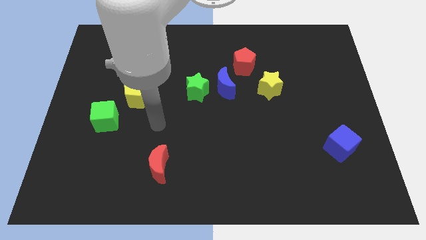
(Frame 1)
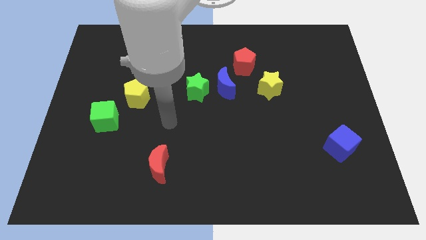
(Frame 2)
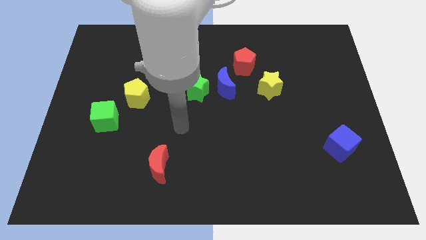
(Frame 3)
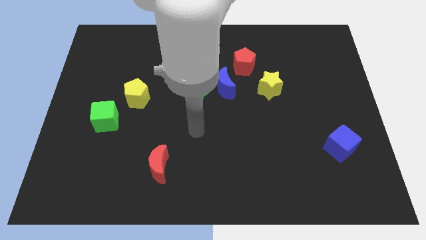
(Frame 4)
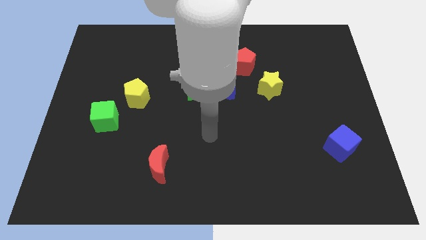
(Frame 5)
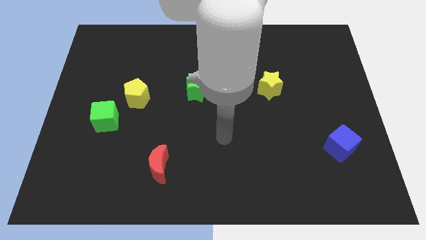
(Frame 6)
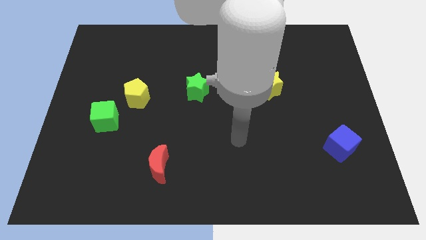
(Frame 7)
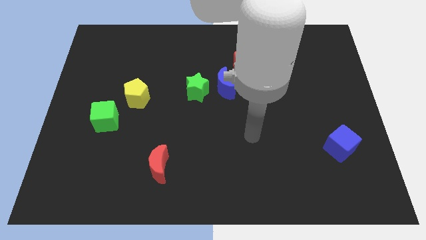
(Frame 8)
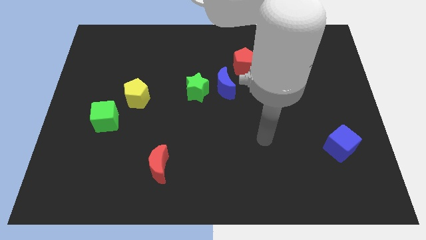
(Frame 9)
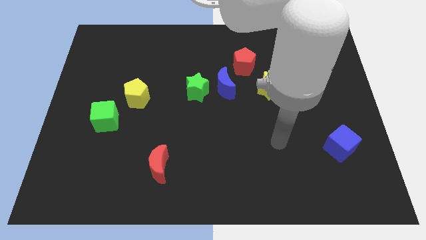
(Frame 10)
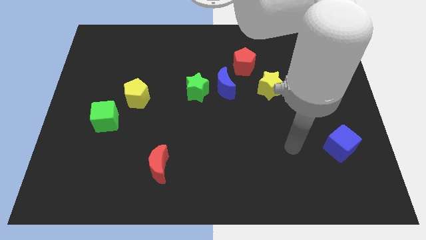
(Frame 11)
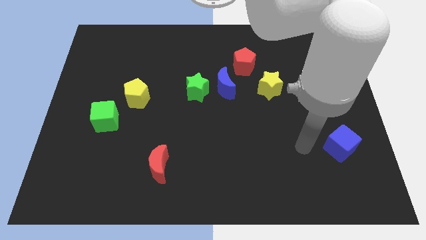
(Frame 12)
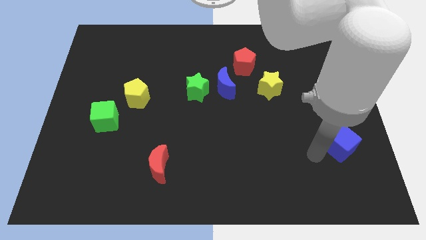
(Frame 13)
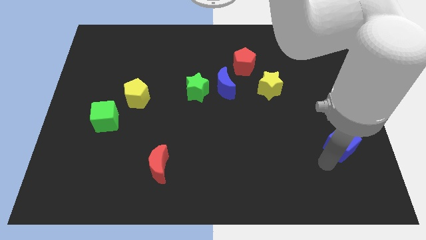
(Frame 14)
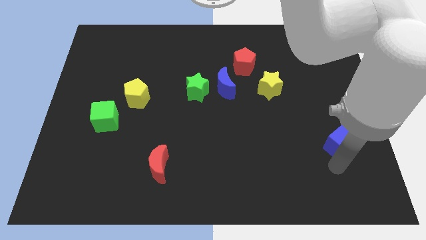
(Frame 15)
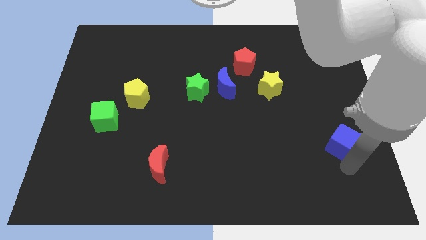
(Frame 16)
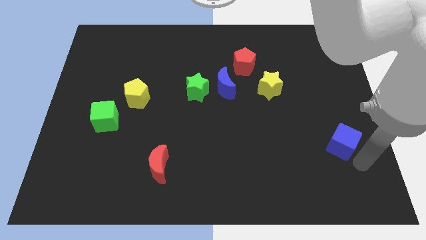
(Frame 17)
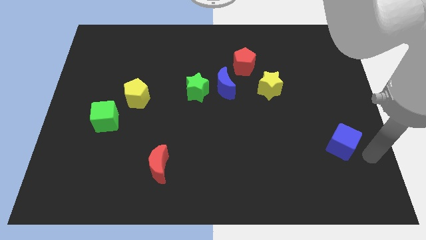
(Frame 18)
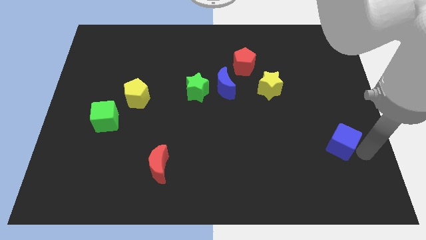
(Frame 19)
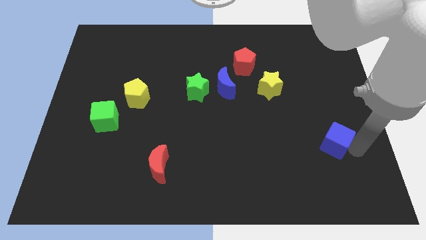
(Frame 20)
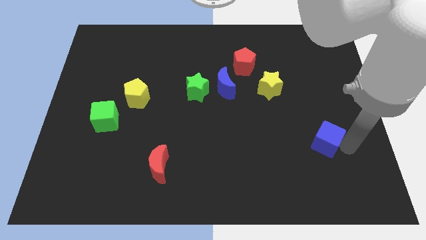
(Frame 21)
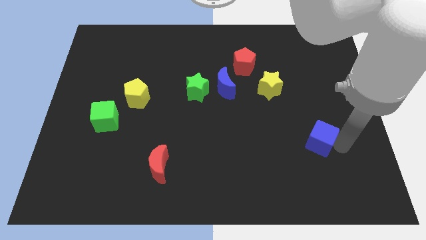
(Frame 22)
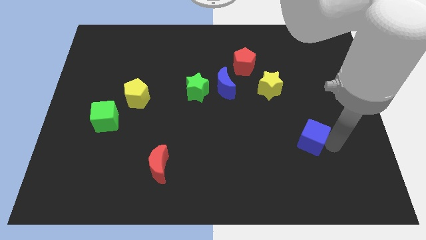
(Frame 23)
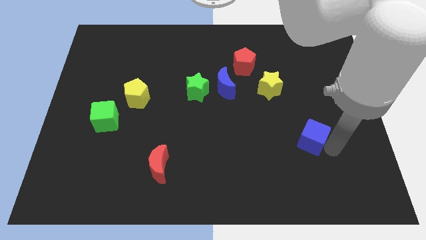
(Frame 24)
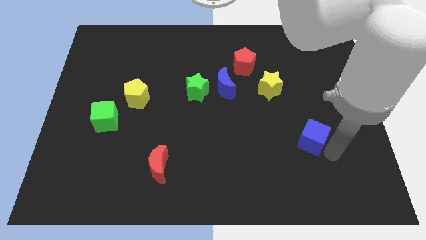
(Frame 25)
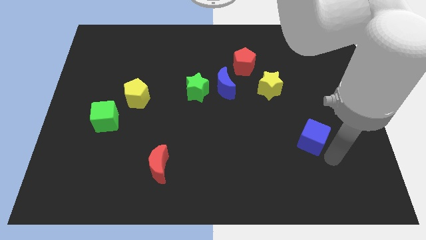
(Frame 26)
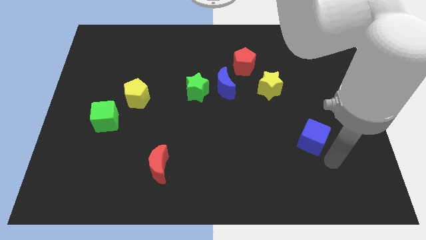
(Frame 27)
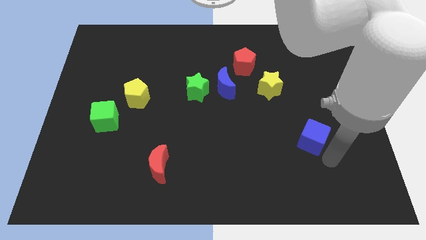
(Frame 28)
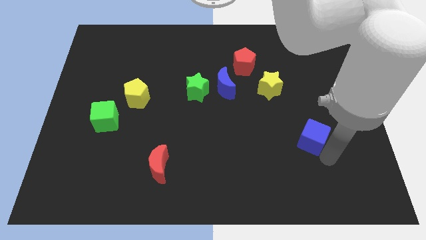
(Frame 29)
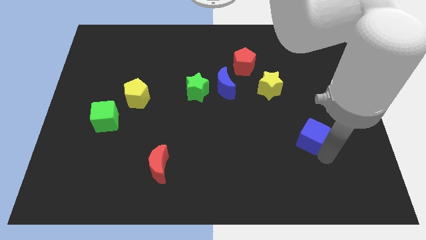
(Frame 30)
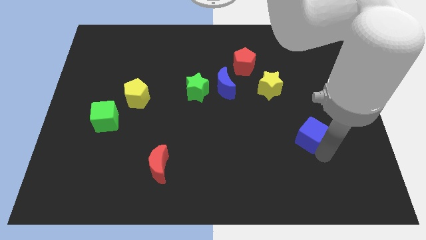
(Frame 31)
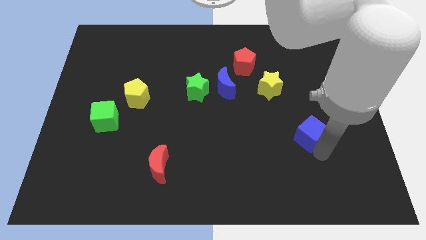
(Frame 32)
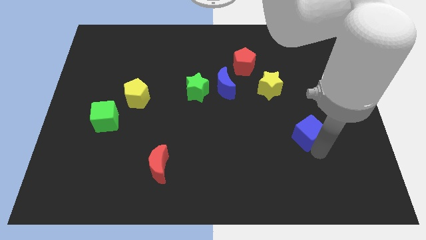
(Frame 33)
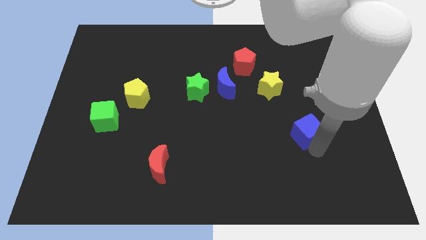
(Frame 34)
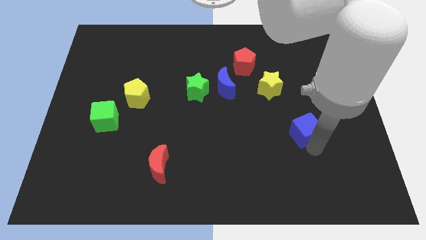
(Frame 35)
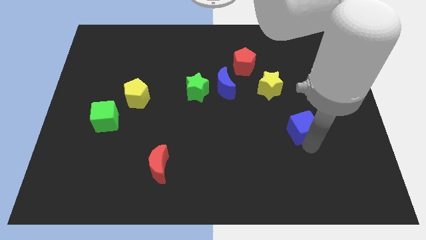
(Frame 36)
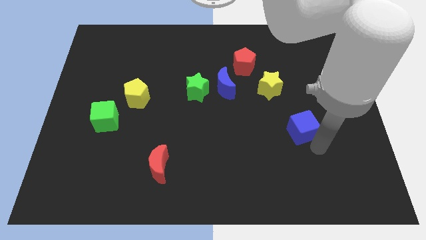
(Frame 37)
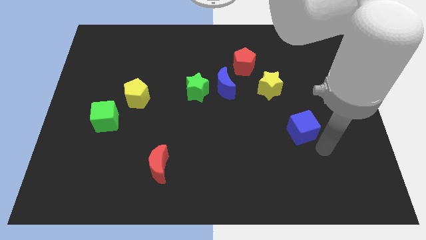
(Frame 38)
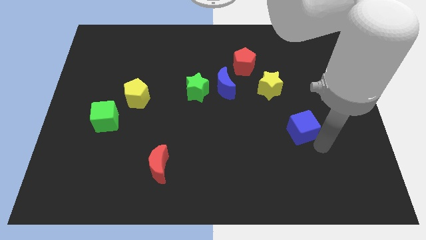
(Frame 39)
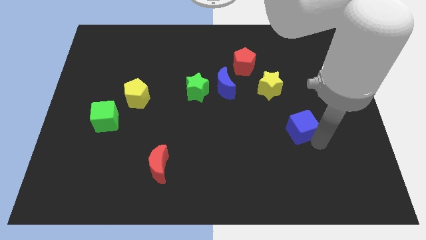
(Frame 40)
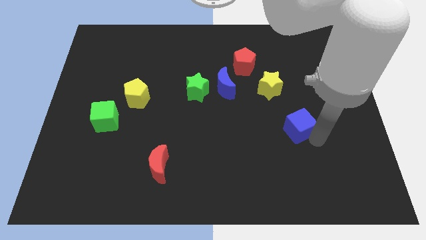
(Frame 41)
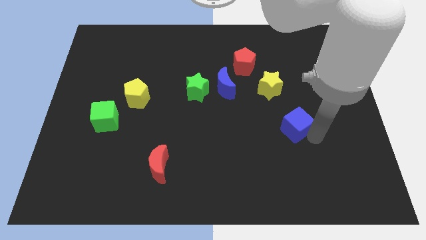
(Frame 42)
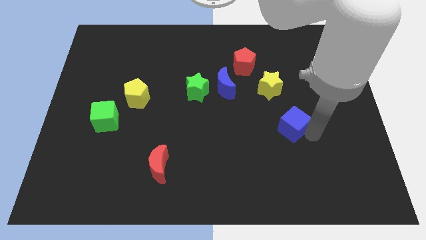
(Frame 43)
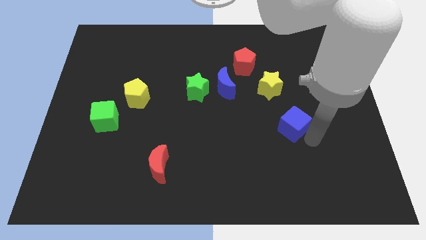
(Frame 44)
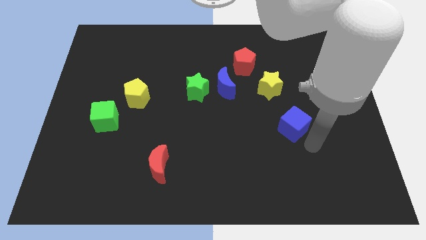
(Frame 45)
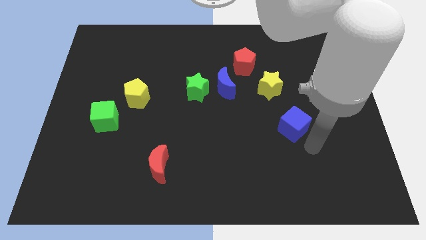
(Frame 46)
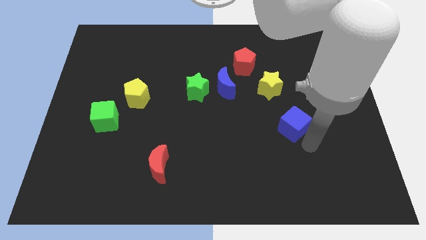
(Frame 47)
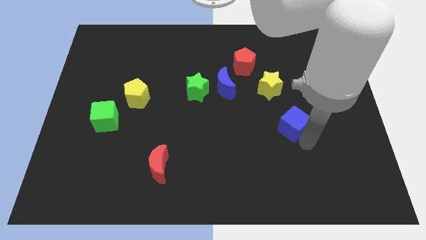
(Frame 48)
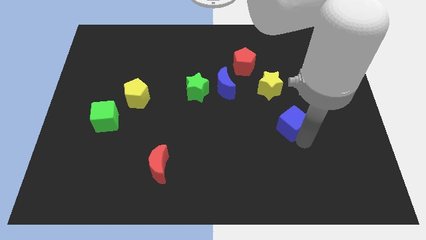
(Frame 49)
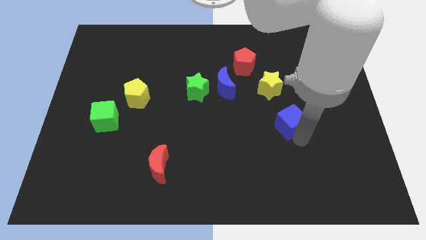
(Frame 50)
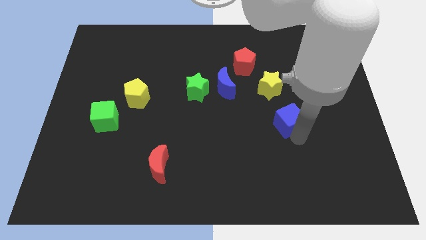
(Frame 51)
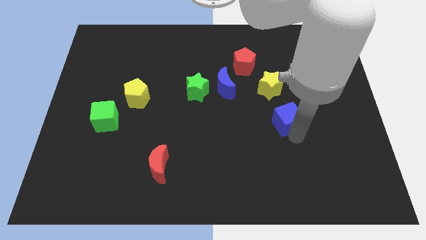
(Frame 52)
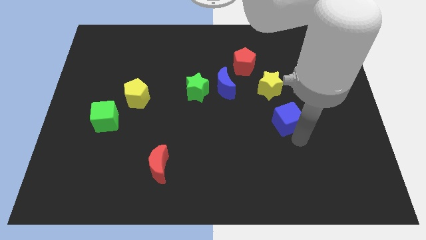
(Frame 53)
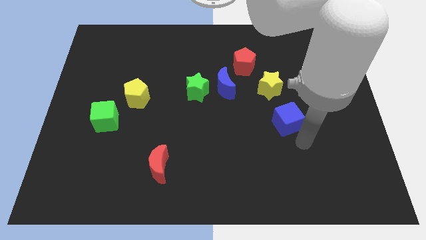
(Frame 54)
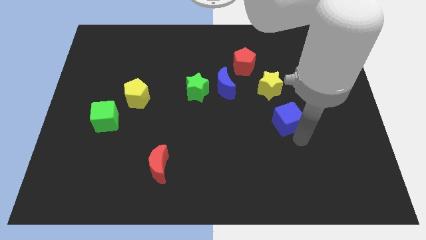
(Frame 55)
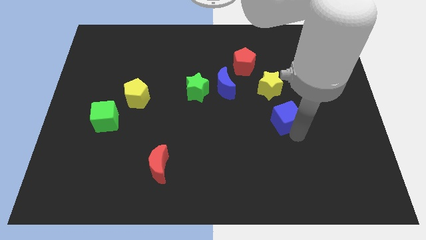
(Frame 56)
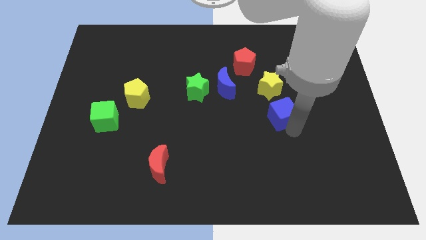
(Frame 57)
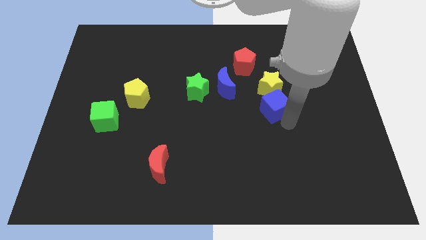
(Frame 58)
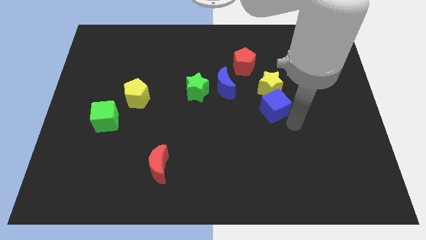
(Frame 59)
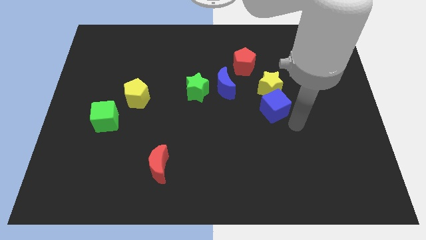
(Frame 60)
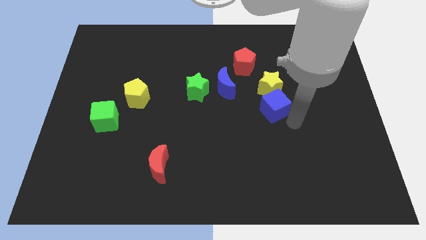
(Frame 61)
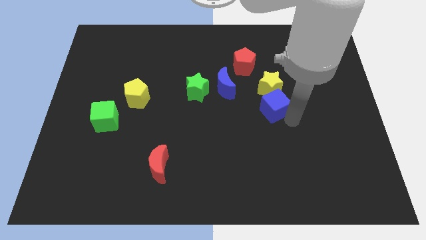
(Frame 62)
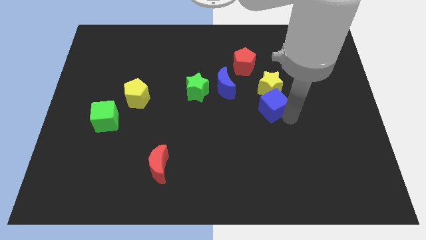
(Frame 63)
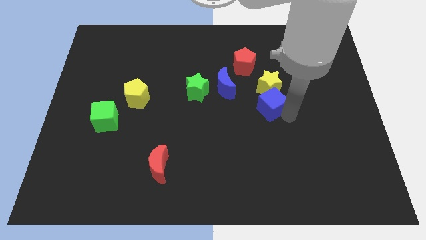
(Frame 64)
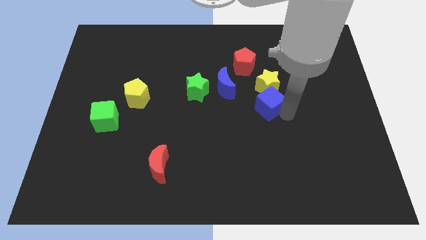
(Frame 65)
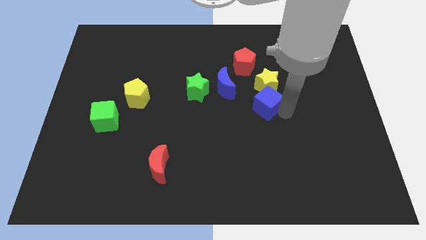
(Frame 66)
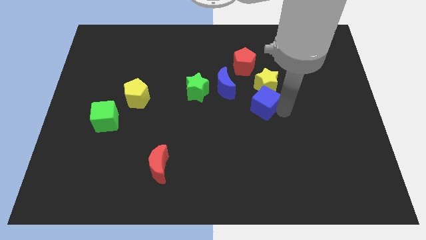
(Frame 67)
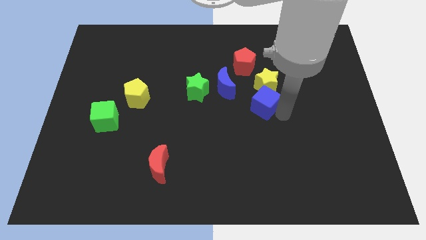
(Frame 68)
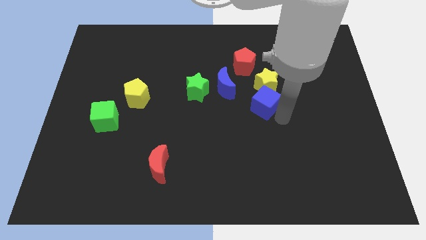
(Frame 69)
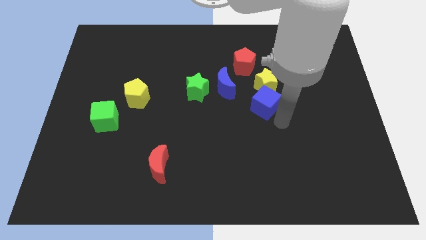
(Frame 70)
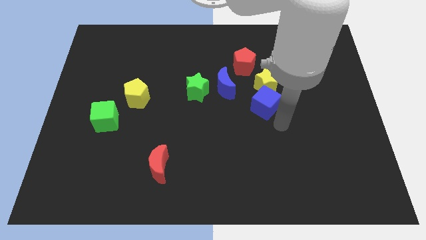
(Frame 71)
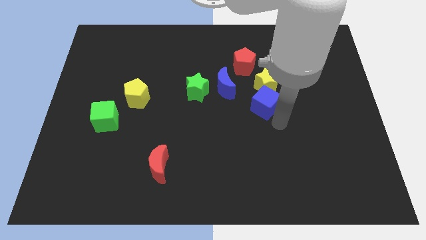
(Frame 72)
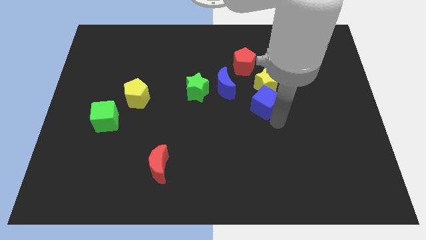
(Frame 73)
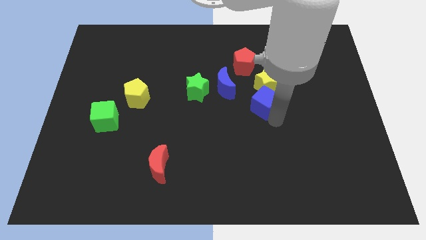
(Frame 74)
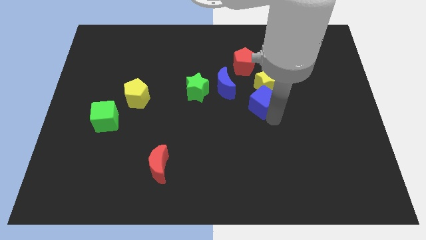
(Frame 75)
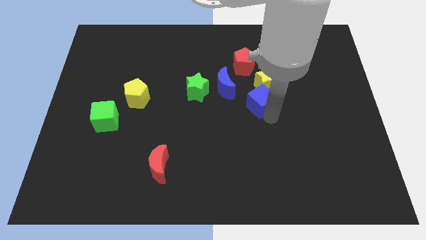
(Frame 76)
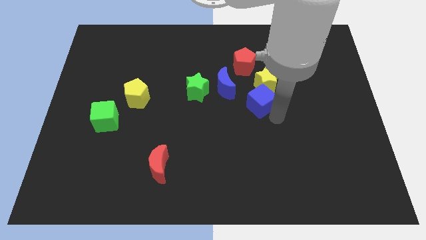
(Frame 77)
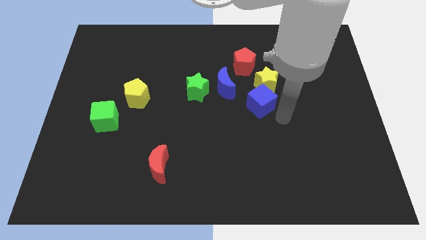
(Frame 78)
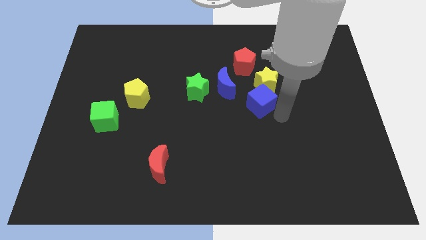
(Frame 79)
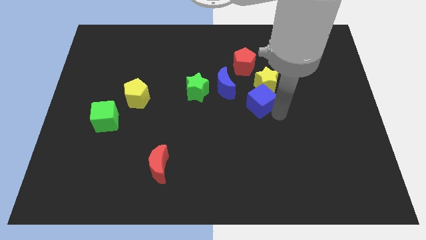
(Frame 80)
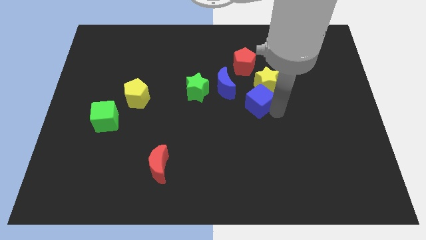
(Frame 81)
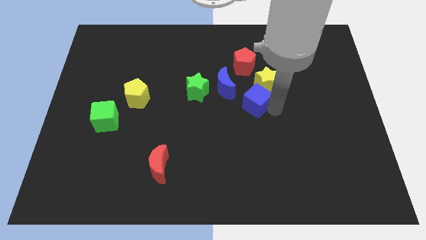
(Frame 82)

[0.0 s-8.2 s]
slide the blue cube to the right side of the green star
